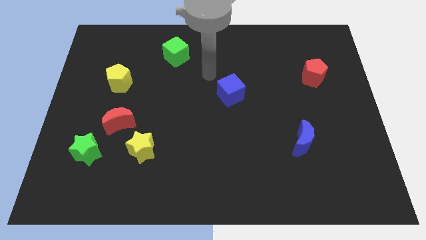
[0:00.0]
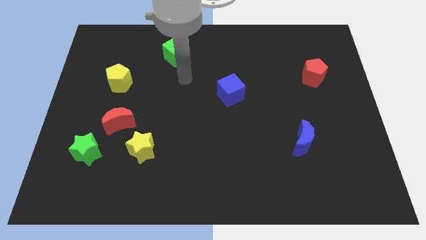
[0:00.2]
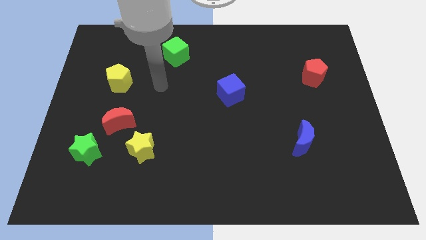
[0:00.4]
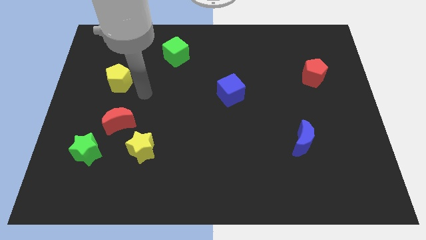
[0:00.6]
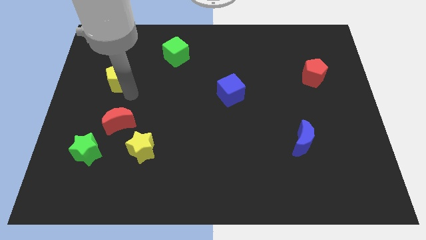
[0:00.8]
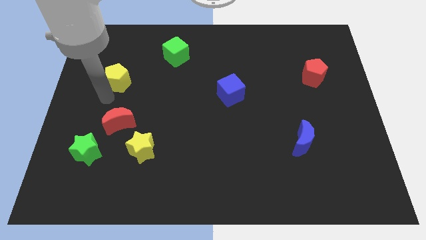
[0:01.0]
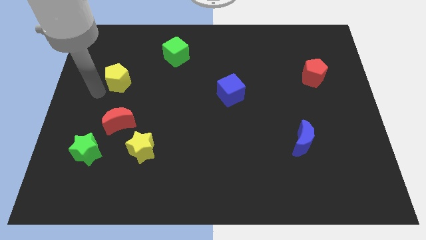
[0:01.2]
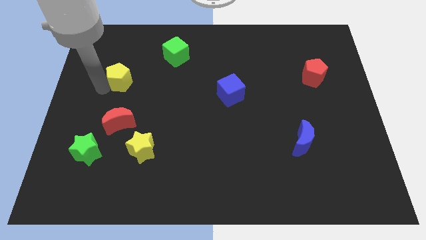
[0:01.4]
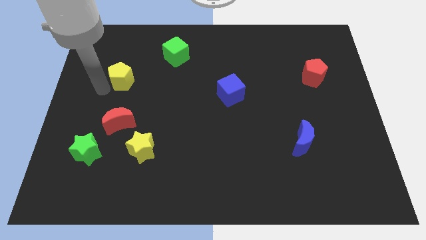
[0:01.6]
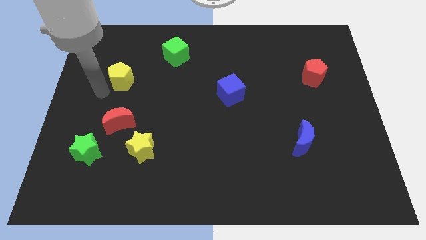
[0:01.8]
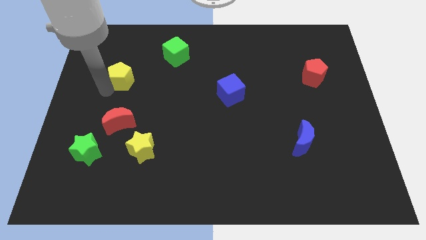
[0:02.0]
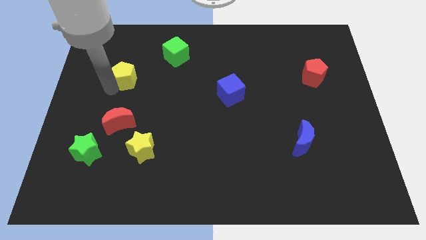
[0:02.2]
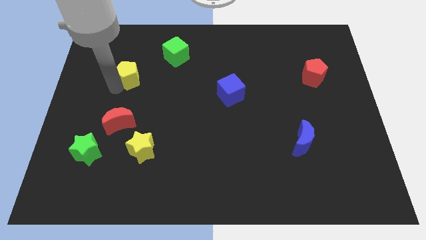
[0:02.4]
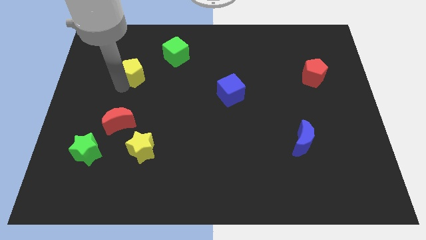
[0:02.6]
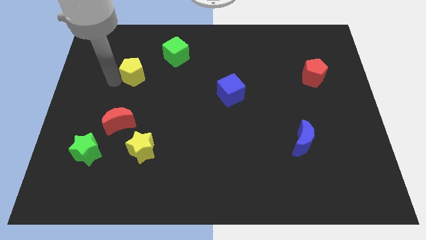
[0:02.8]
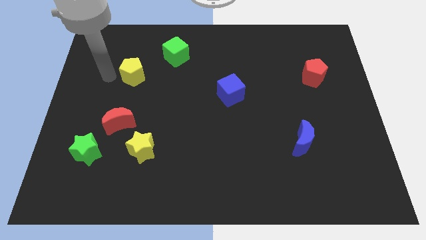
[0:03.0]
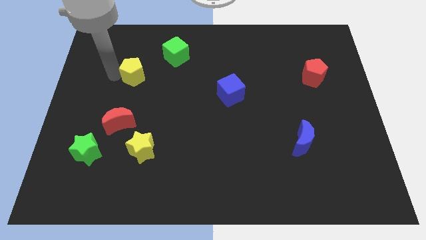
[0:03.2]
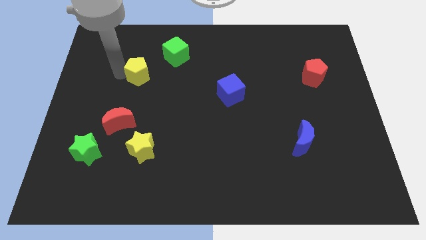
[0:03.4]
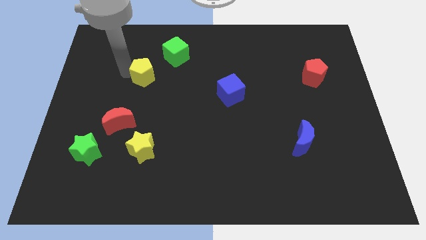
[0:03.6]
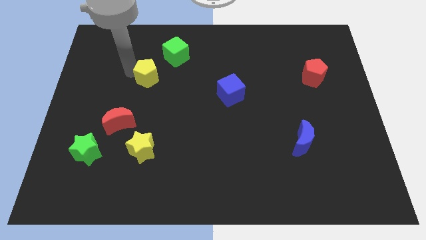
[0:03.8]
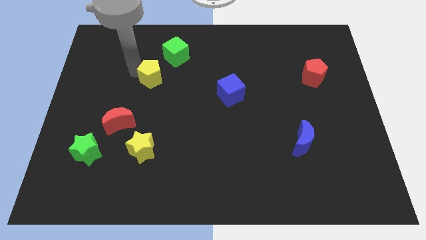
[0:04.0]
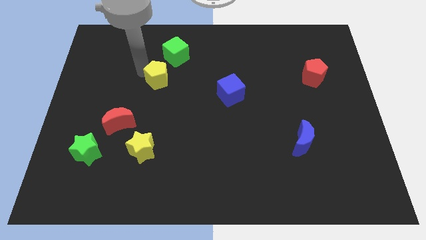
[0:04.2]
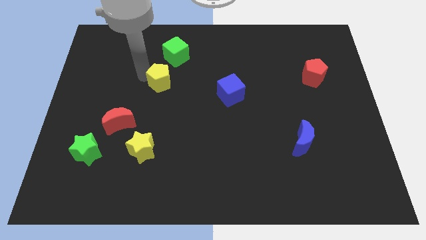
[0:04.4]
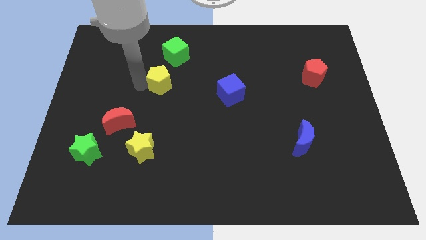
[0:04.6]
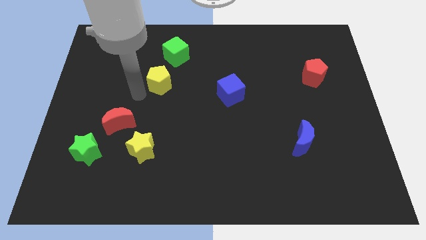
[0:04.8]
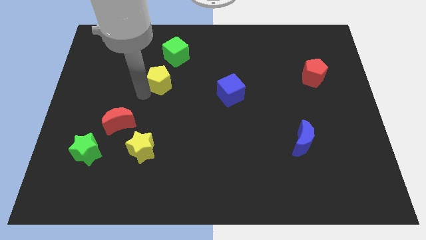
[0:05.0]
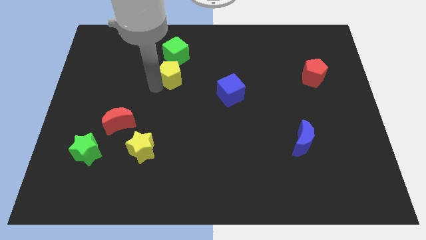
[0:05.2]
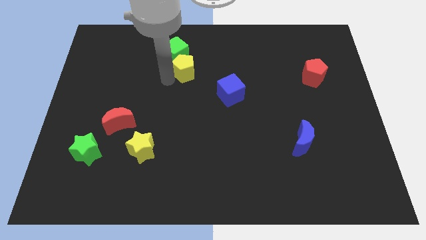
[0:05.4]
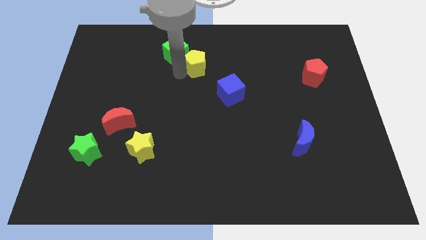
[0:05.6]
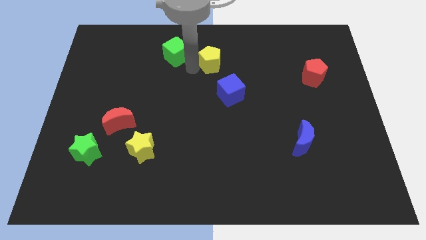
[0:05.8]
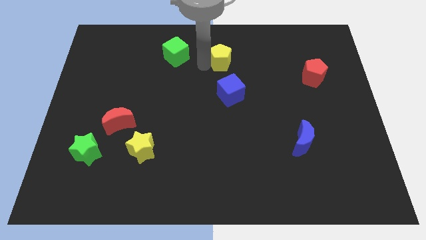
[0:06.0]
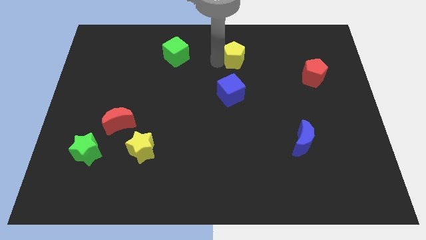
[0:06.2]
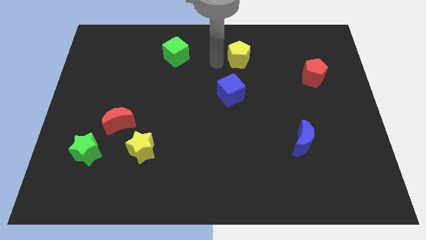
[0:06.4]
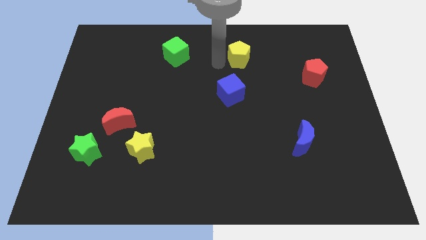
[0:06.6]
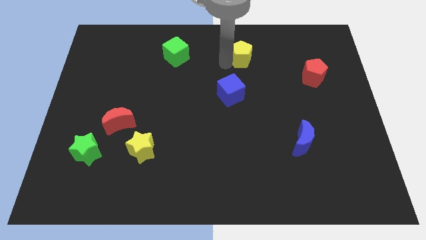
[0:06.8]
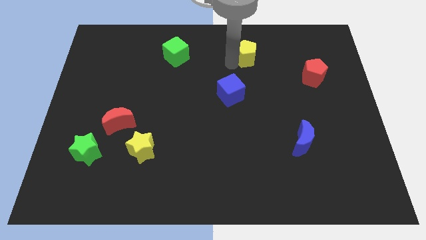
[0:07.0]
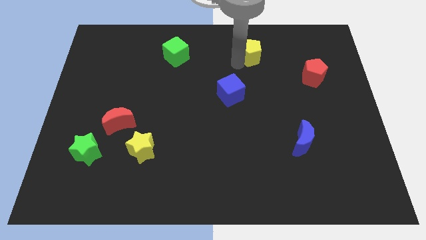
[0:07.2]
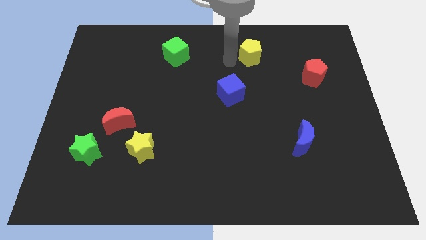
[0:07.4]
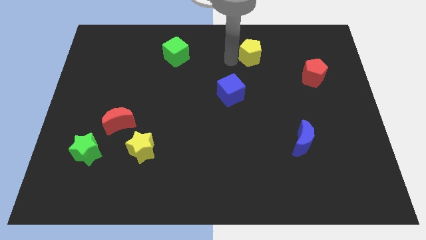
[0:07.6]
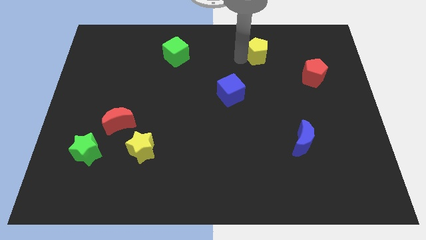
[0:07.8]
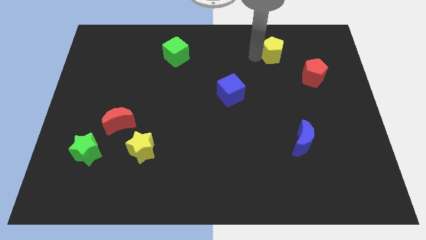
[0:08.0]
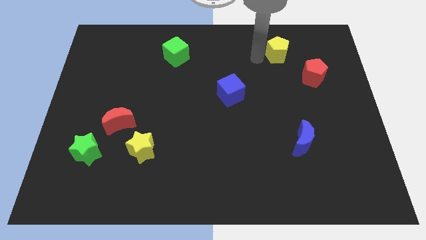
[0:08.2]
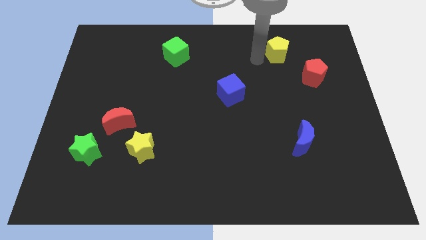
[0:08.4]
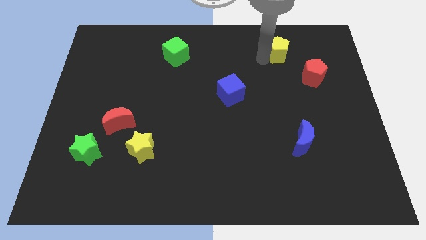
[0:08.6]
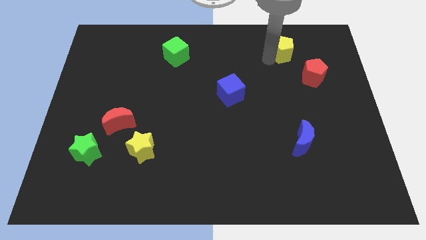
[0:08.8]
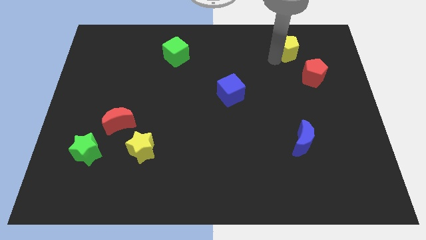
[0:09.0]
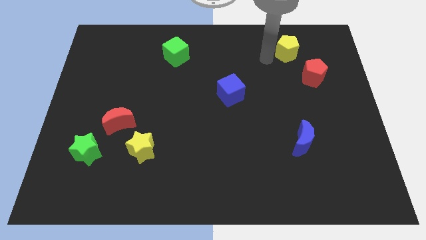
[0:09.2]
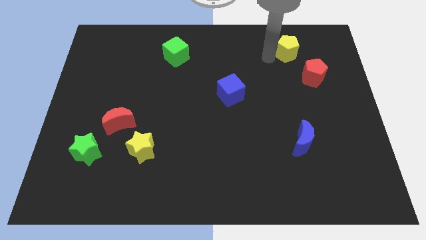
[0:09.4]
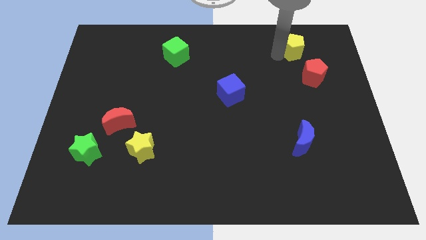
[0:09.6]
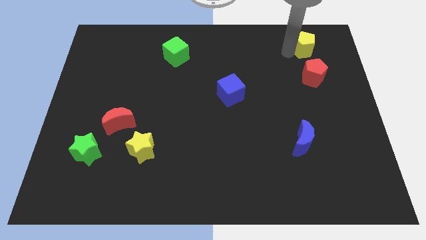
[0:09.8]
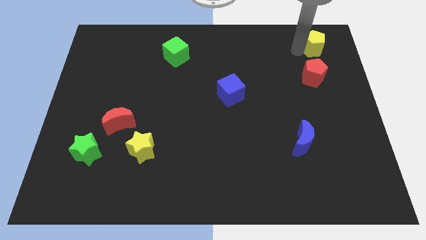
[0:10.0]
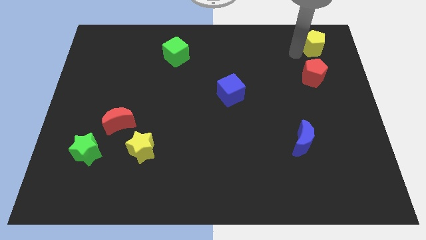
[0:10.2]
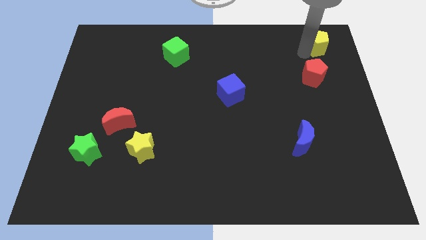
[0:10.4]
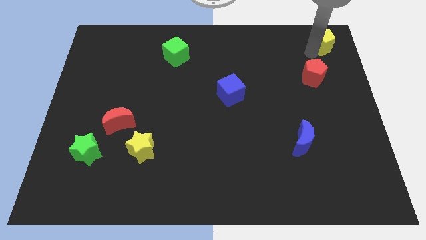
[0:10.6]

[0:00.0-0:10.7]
move the yellow pentagon to the top right of the board
